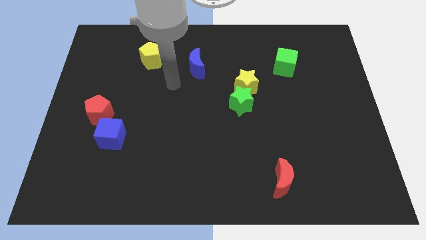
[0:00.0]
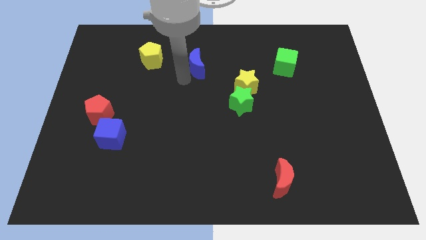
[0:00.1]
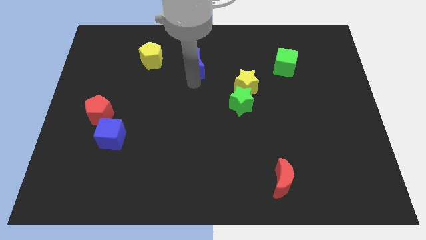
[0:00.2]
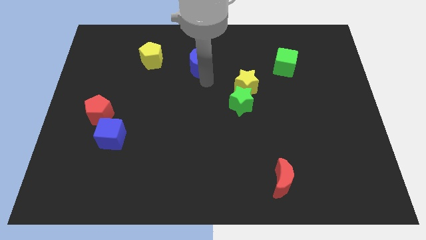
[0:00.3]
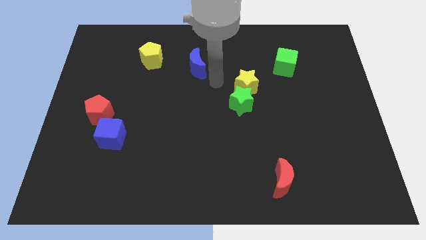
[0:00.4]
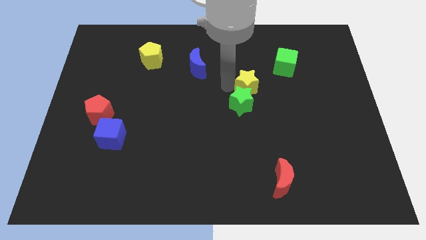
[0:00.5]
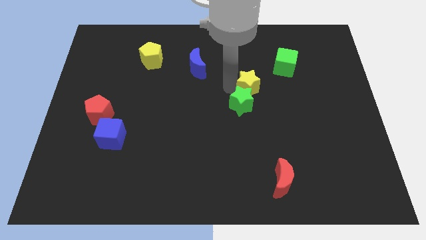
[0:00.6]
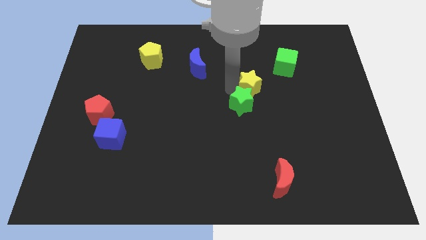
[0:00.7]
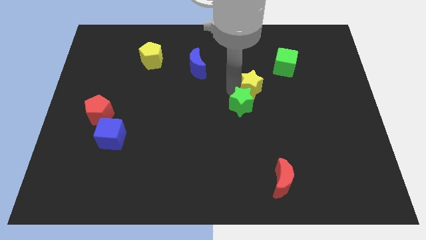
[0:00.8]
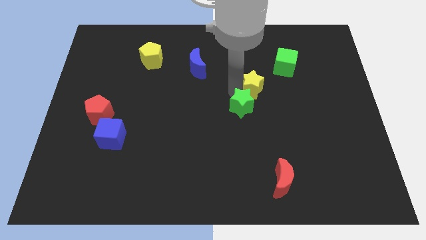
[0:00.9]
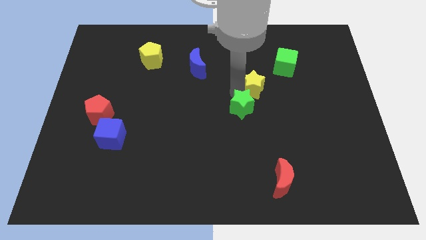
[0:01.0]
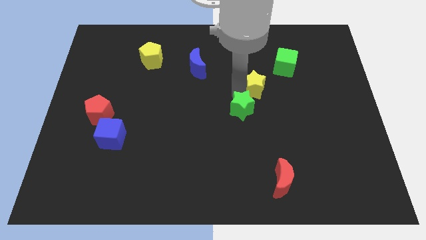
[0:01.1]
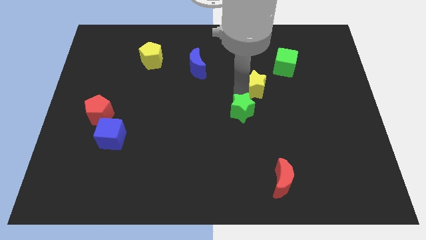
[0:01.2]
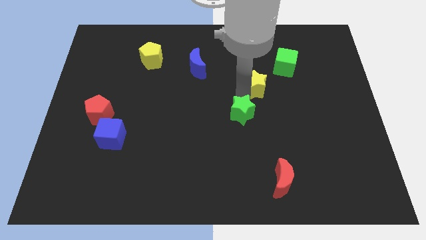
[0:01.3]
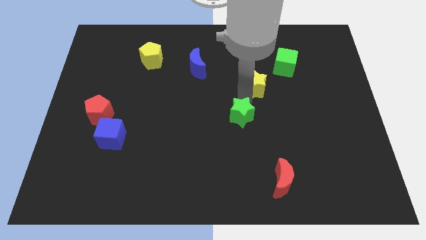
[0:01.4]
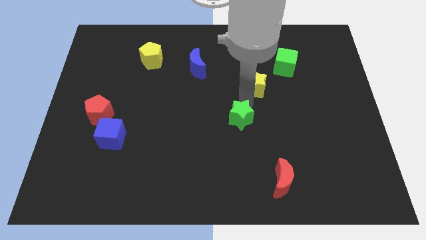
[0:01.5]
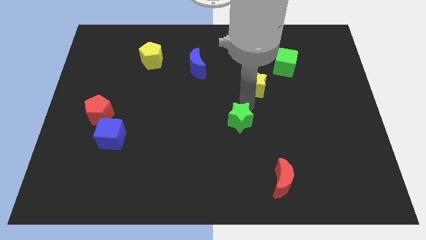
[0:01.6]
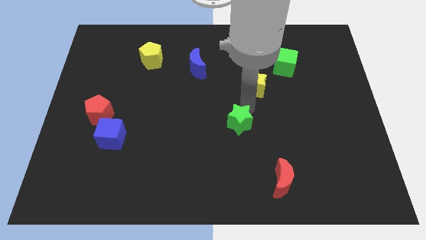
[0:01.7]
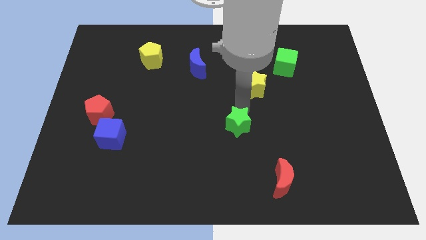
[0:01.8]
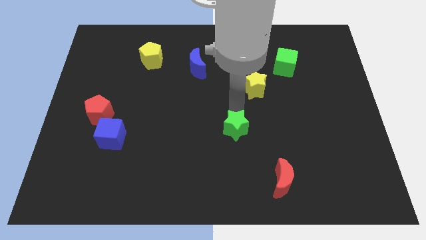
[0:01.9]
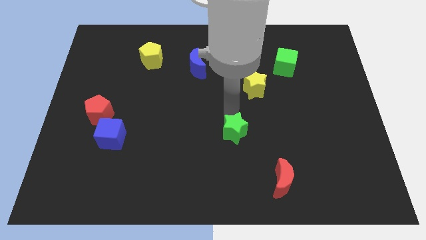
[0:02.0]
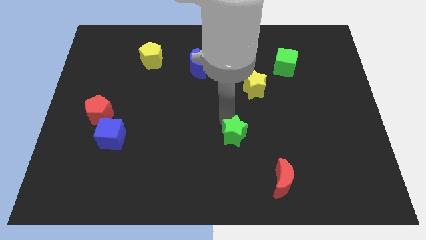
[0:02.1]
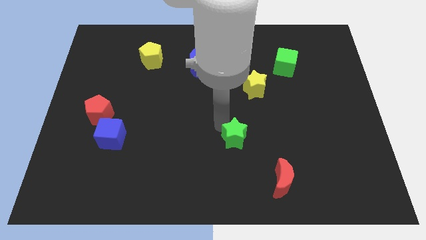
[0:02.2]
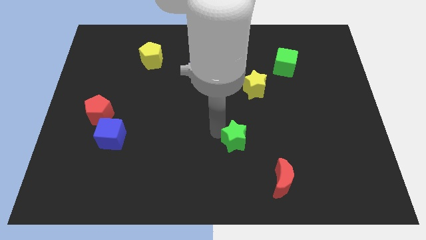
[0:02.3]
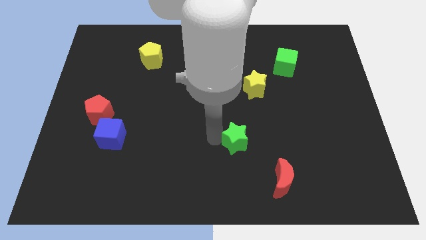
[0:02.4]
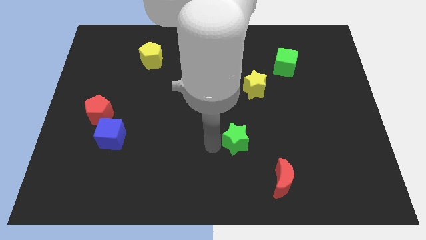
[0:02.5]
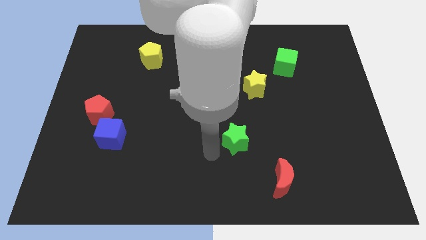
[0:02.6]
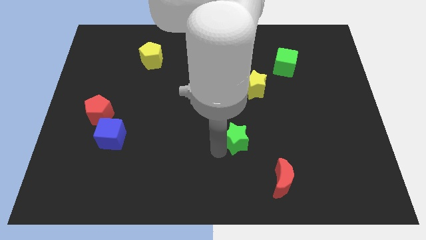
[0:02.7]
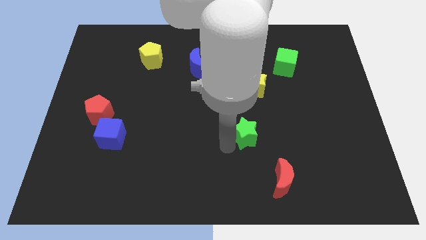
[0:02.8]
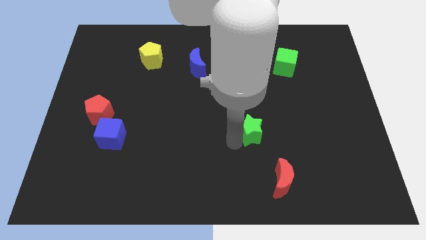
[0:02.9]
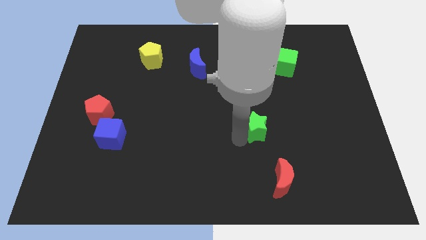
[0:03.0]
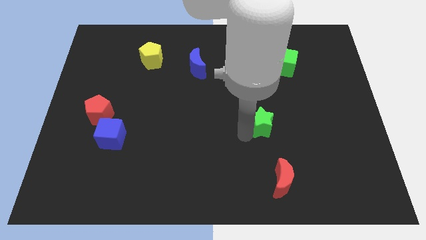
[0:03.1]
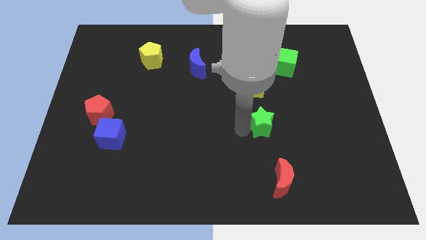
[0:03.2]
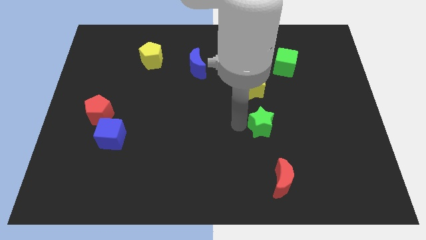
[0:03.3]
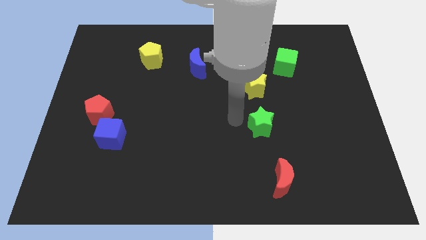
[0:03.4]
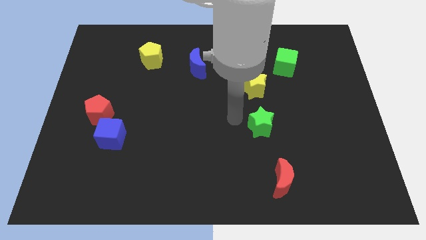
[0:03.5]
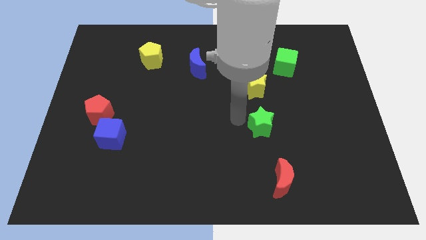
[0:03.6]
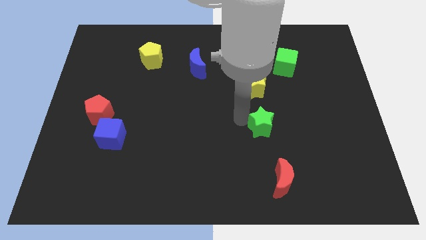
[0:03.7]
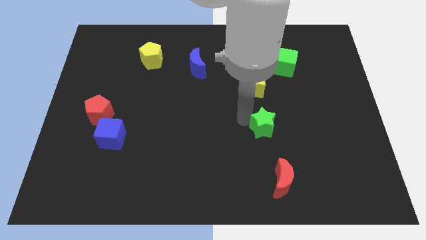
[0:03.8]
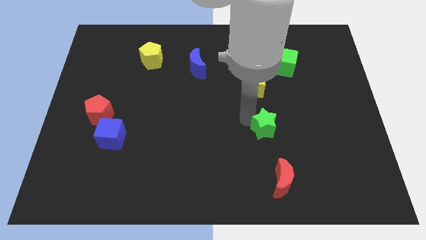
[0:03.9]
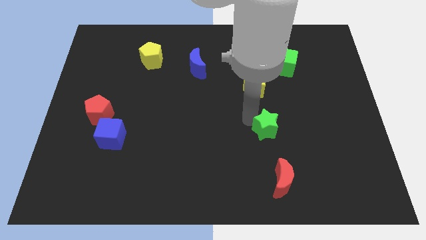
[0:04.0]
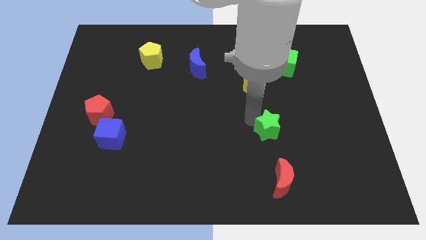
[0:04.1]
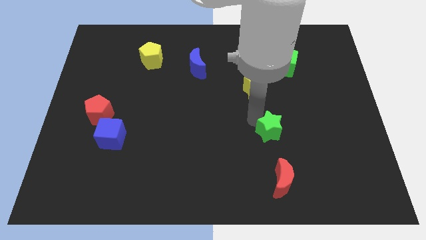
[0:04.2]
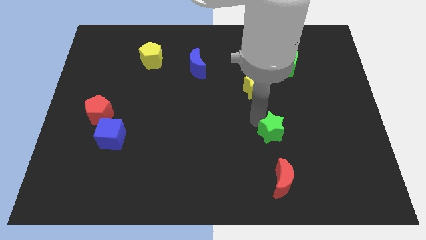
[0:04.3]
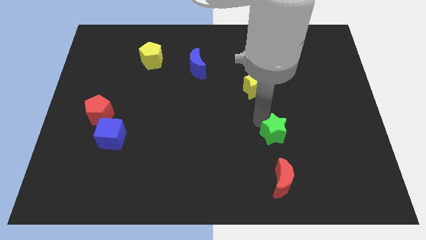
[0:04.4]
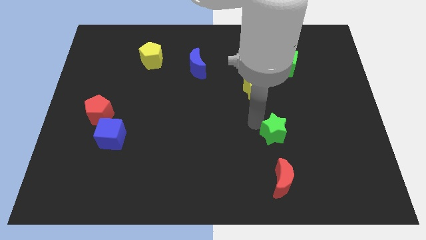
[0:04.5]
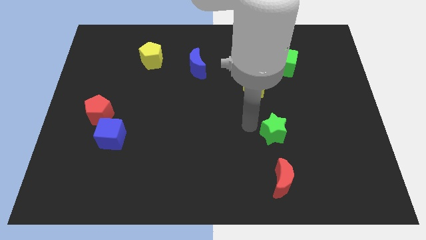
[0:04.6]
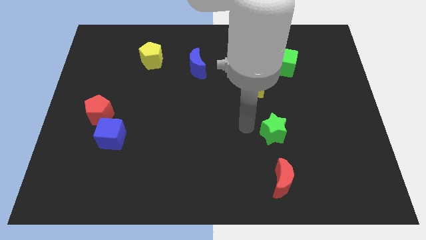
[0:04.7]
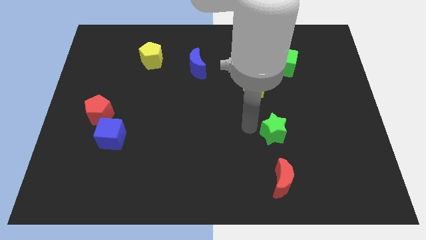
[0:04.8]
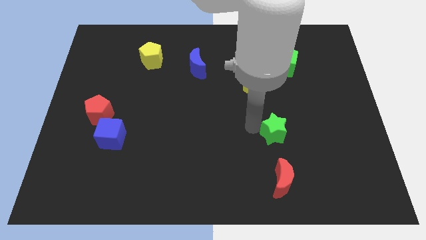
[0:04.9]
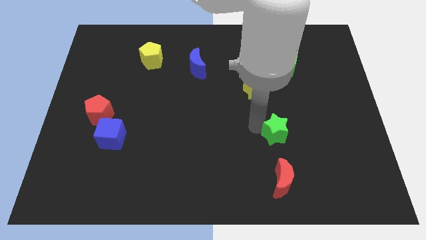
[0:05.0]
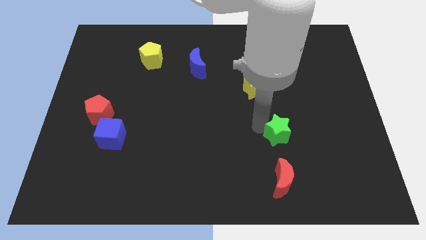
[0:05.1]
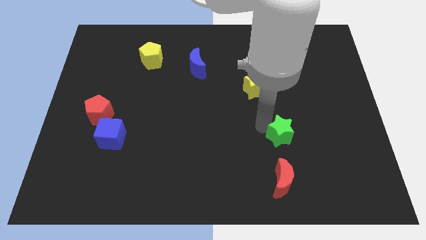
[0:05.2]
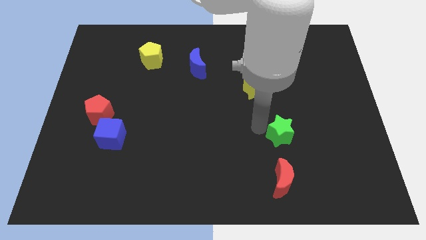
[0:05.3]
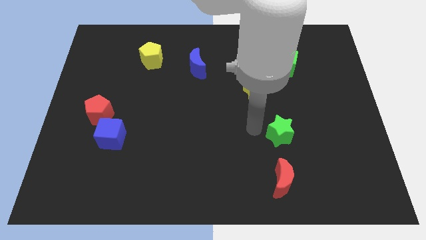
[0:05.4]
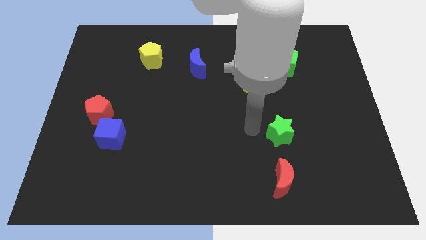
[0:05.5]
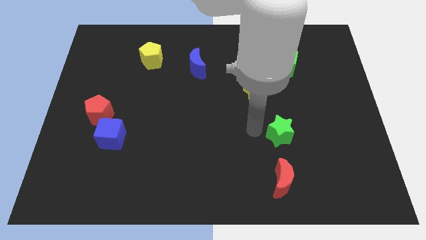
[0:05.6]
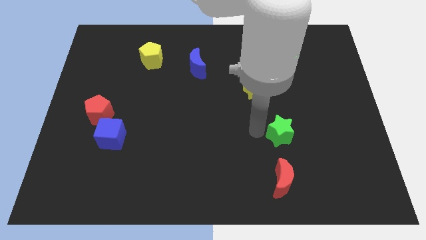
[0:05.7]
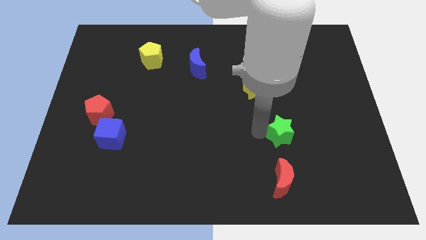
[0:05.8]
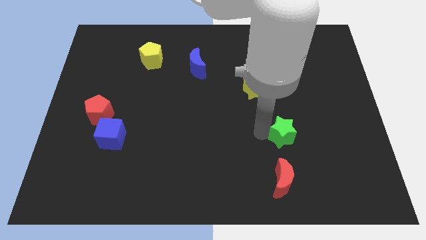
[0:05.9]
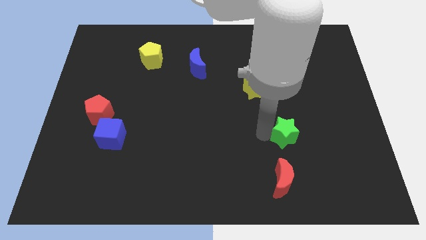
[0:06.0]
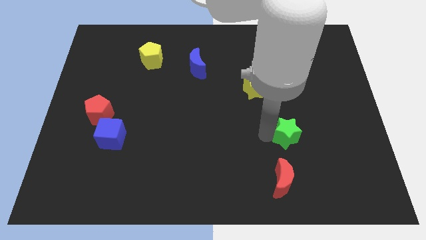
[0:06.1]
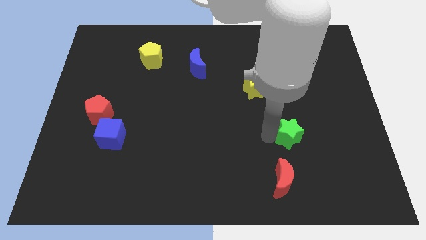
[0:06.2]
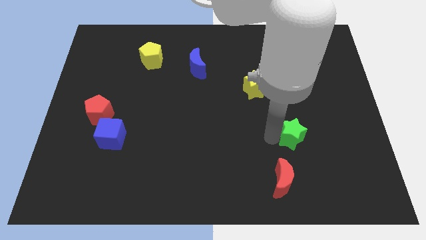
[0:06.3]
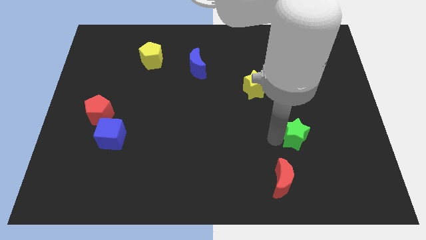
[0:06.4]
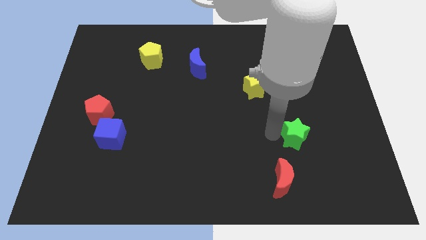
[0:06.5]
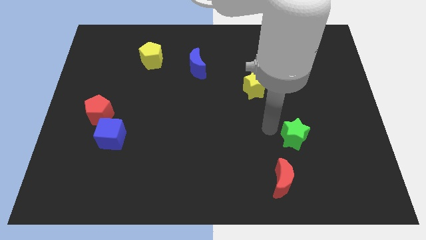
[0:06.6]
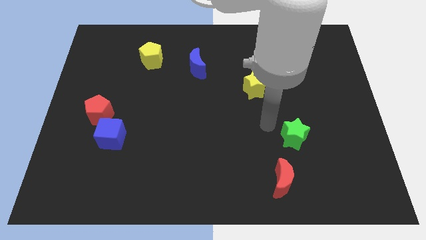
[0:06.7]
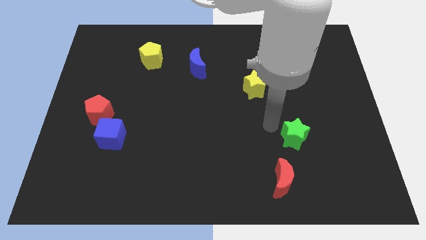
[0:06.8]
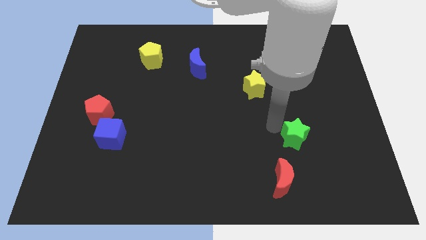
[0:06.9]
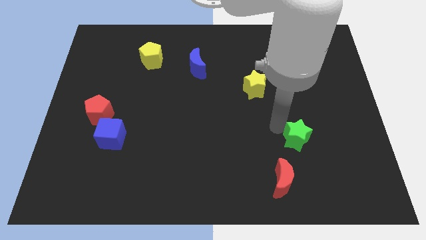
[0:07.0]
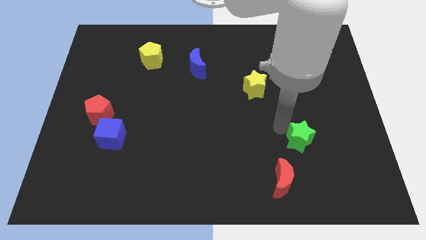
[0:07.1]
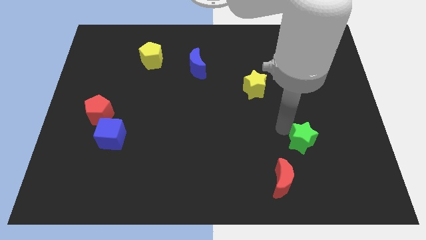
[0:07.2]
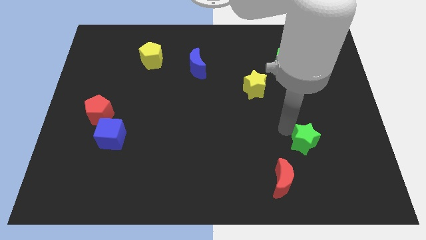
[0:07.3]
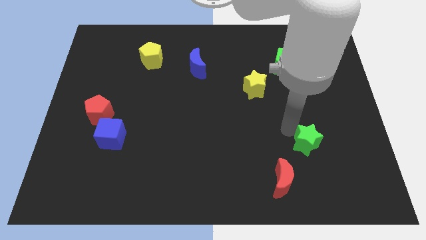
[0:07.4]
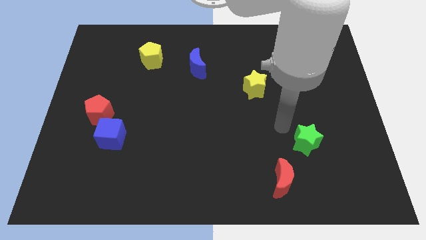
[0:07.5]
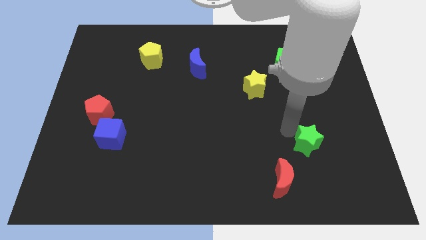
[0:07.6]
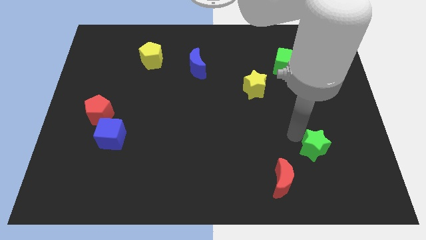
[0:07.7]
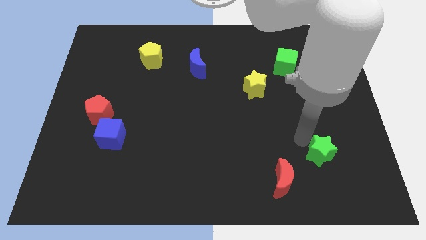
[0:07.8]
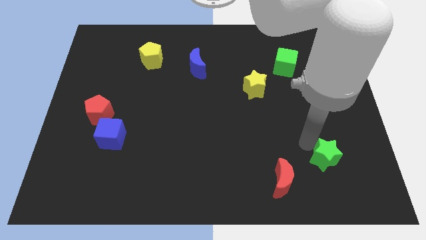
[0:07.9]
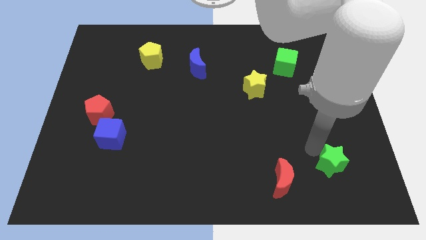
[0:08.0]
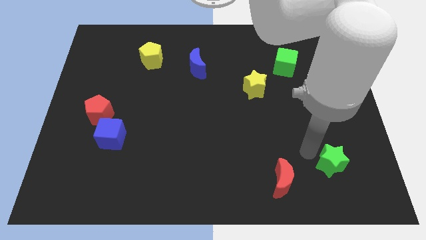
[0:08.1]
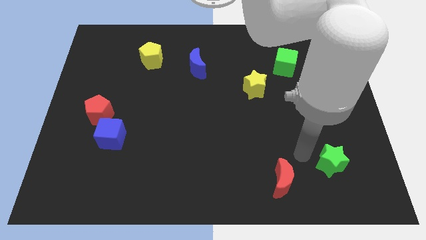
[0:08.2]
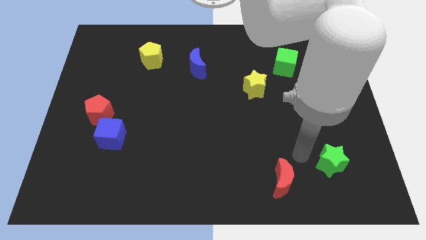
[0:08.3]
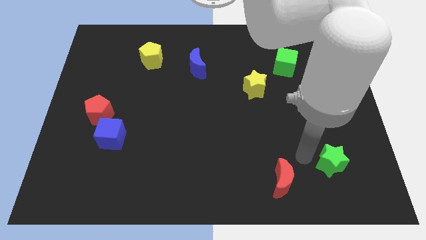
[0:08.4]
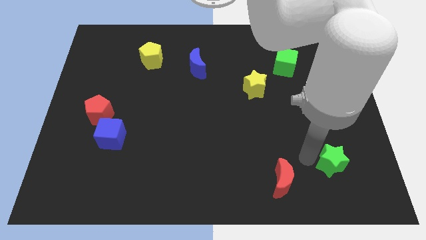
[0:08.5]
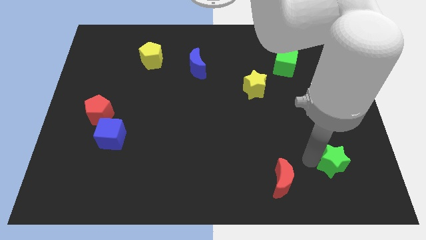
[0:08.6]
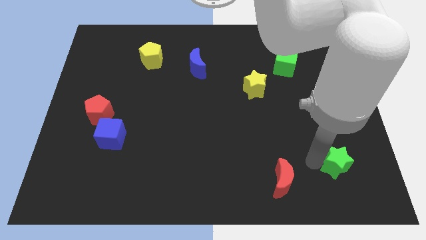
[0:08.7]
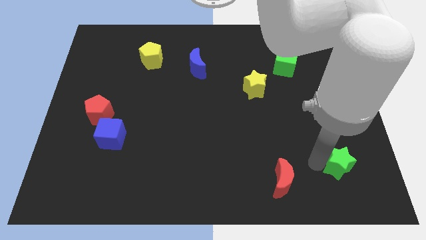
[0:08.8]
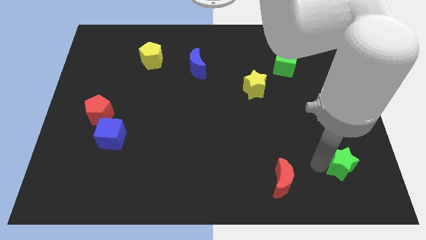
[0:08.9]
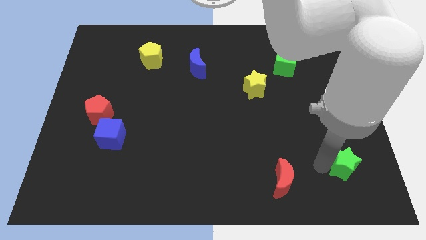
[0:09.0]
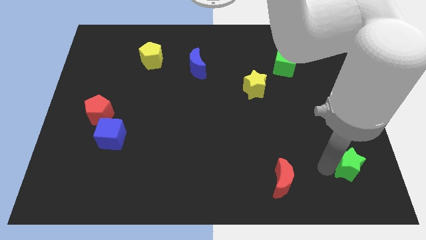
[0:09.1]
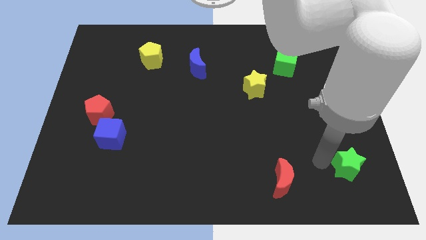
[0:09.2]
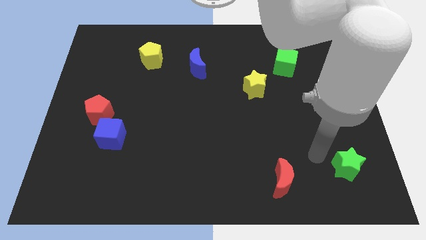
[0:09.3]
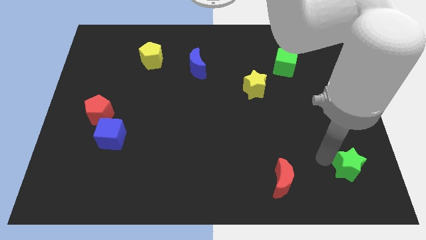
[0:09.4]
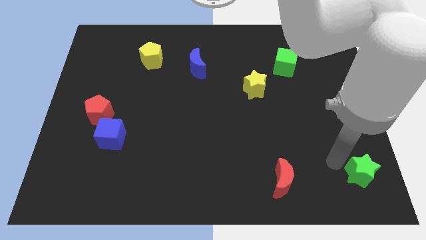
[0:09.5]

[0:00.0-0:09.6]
slide the green star to the bottom right corner
